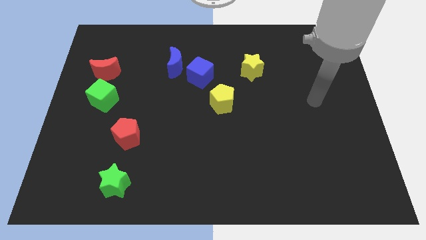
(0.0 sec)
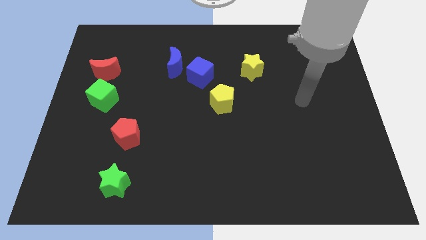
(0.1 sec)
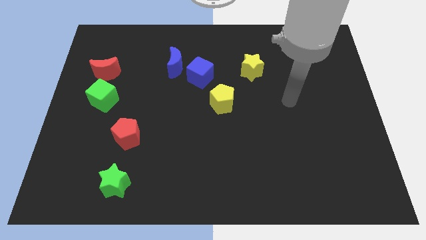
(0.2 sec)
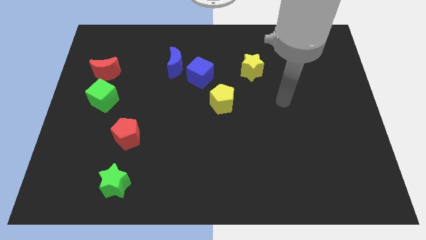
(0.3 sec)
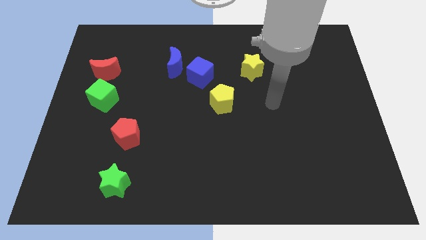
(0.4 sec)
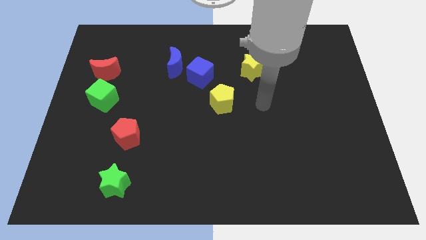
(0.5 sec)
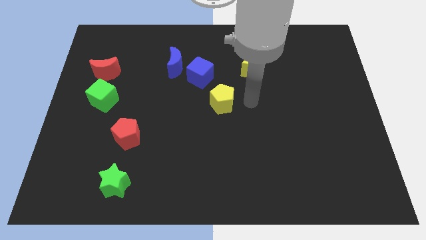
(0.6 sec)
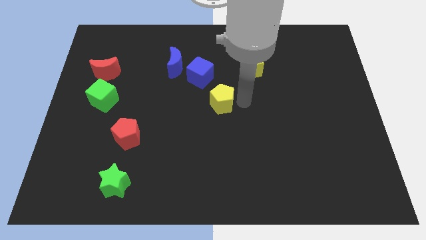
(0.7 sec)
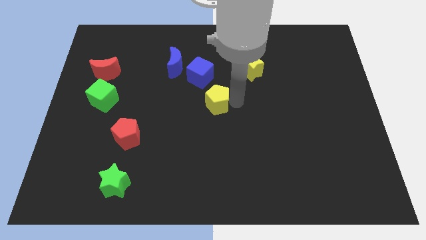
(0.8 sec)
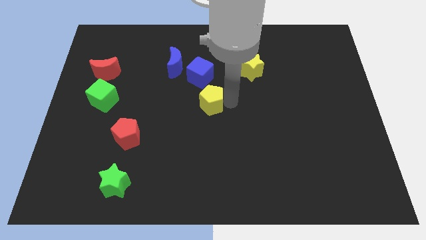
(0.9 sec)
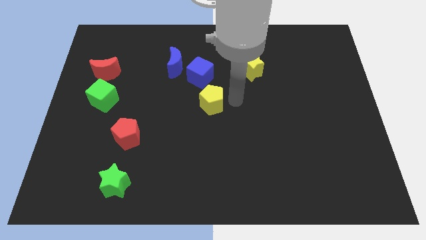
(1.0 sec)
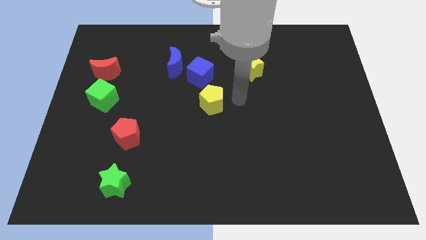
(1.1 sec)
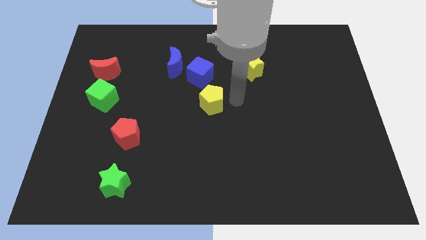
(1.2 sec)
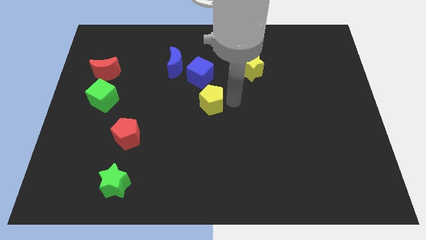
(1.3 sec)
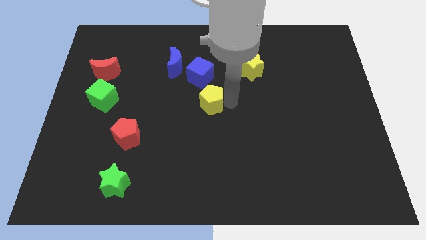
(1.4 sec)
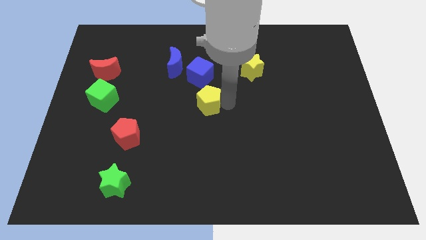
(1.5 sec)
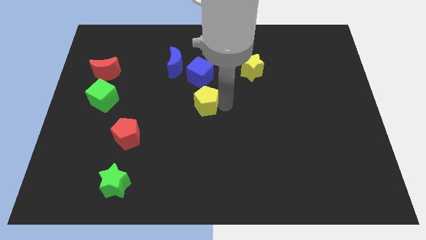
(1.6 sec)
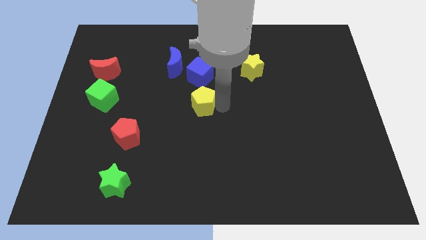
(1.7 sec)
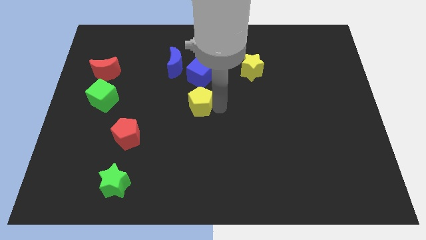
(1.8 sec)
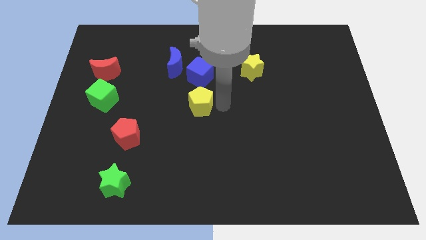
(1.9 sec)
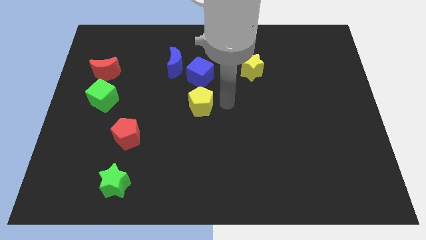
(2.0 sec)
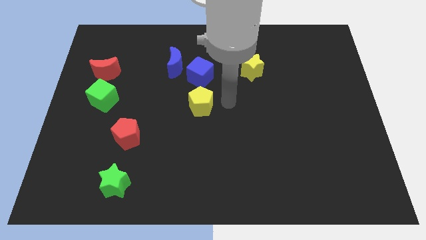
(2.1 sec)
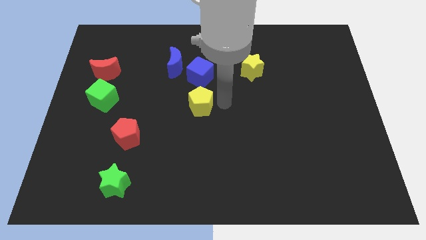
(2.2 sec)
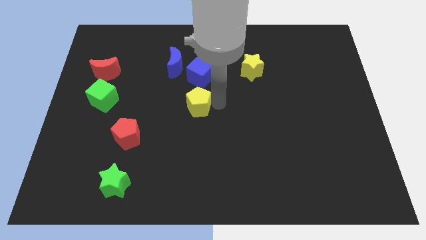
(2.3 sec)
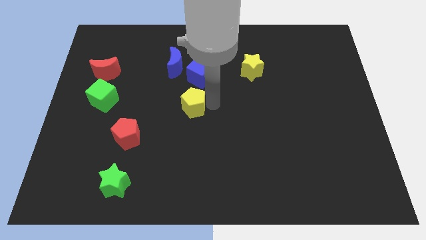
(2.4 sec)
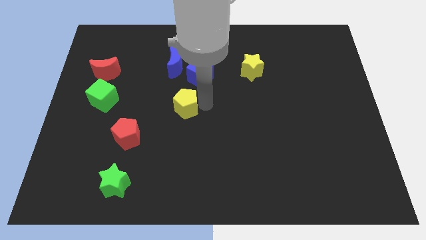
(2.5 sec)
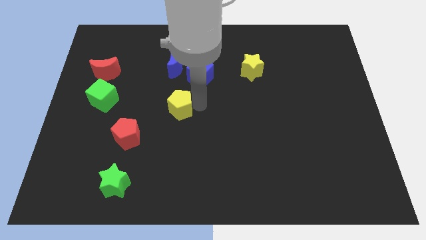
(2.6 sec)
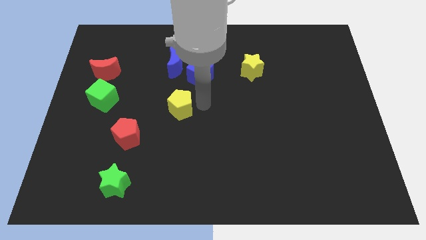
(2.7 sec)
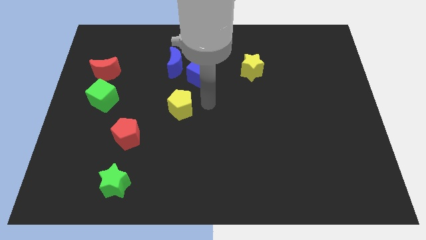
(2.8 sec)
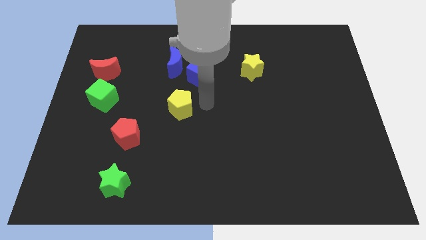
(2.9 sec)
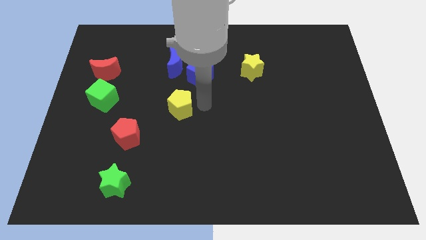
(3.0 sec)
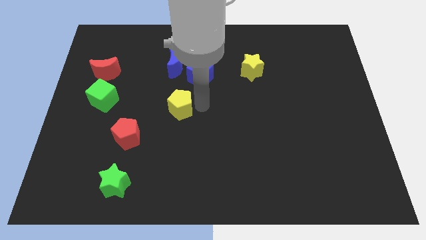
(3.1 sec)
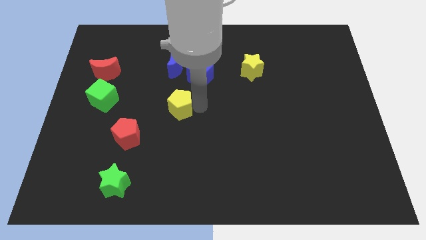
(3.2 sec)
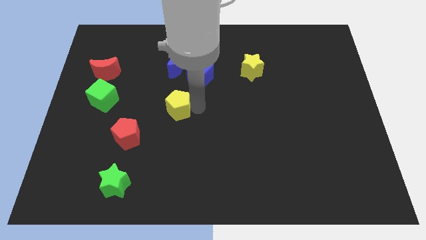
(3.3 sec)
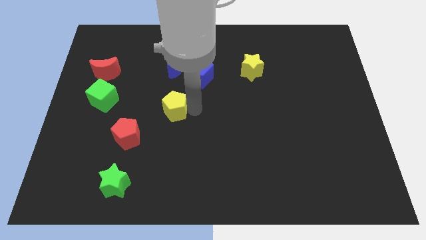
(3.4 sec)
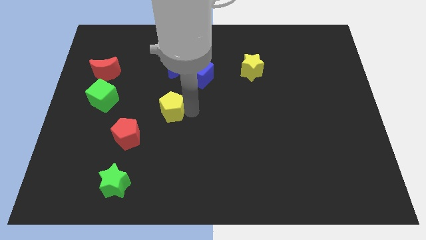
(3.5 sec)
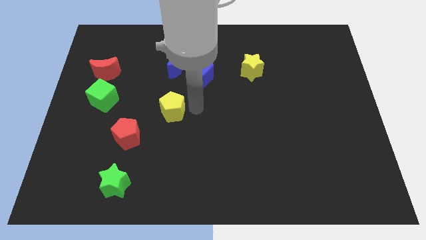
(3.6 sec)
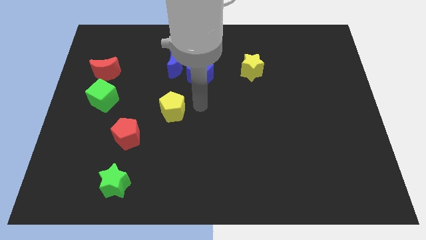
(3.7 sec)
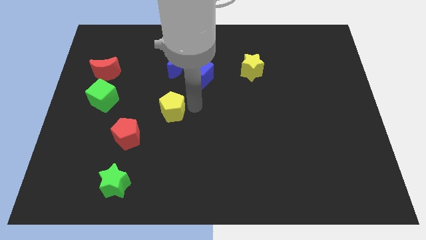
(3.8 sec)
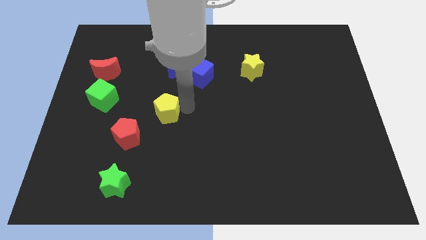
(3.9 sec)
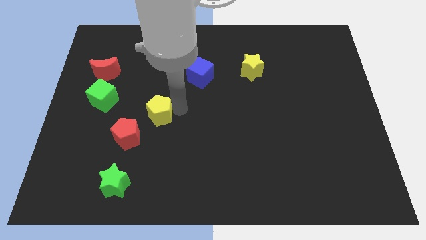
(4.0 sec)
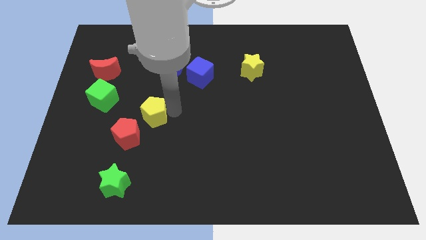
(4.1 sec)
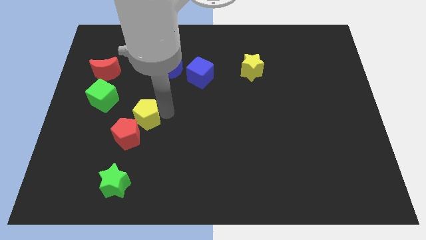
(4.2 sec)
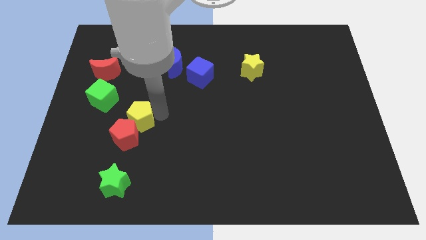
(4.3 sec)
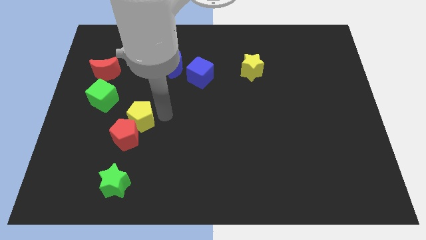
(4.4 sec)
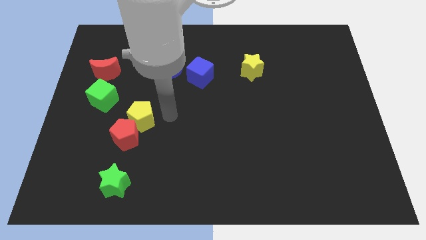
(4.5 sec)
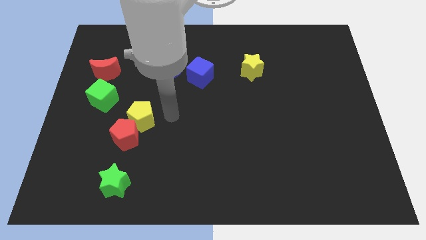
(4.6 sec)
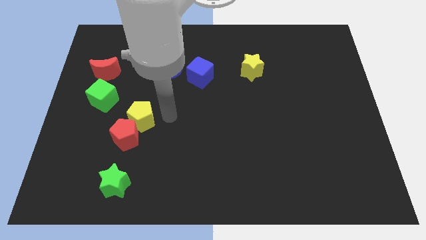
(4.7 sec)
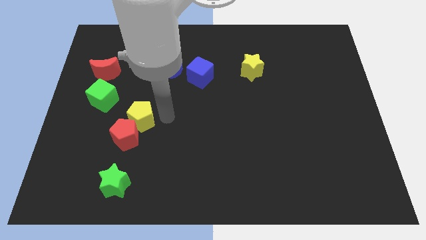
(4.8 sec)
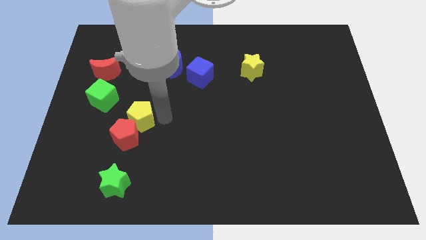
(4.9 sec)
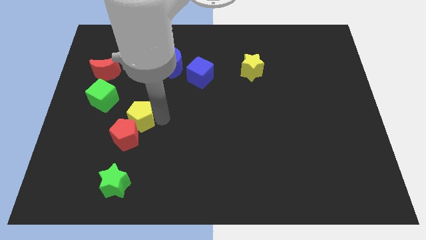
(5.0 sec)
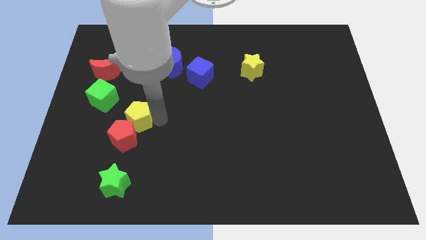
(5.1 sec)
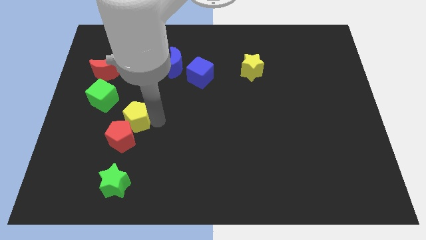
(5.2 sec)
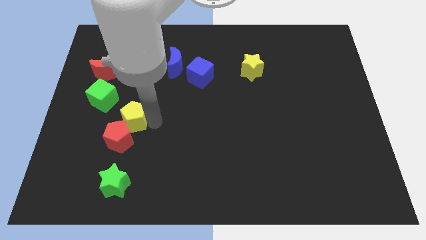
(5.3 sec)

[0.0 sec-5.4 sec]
slide the yellow pentagon above the green star

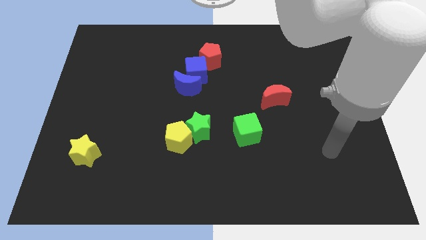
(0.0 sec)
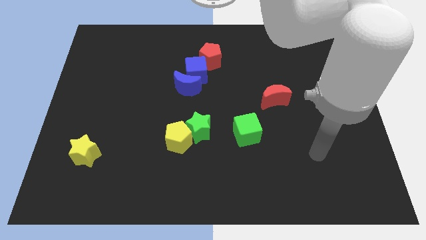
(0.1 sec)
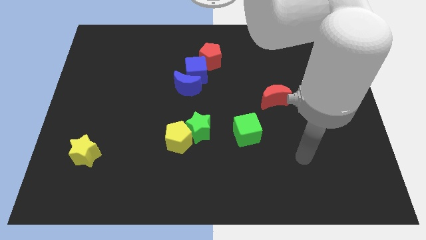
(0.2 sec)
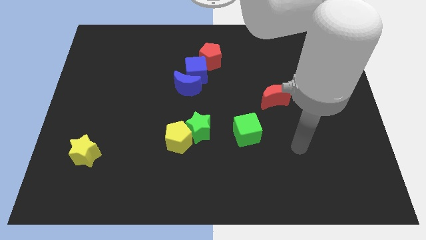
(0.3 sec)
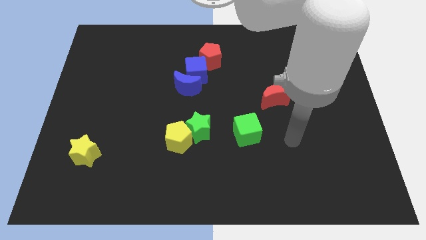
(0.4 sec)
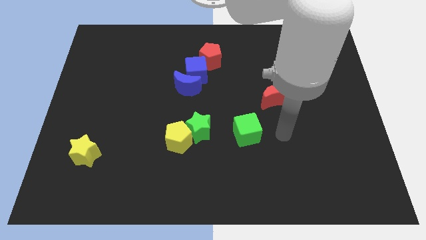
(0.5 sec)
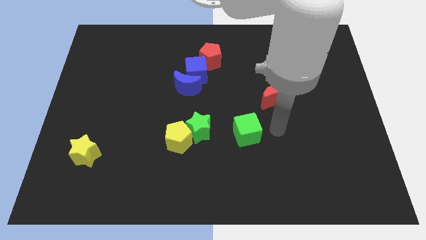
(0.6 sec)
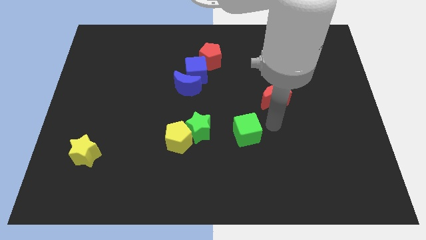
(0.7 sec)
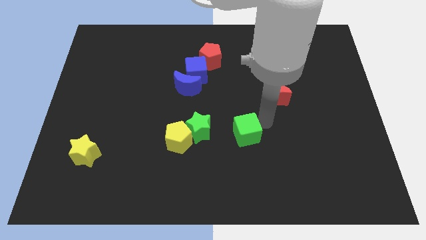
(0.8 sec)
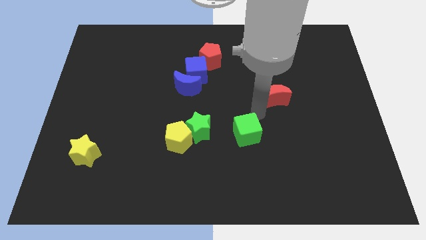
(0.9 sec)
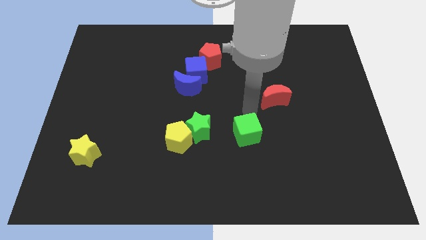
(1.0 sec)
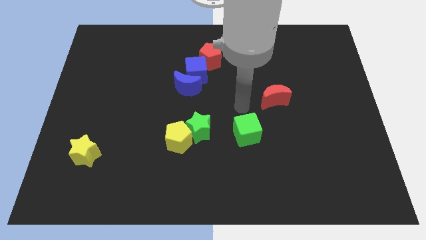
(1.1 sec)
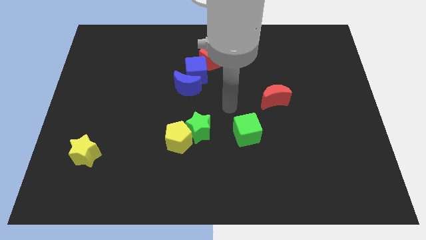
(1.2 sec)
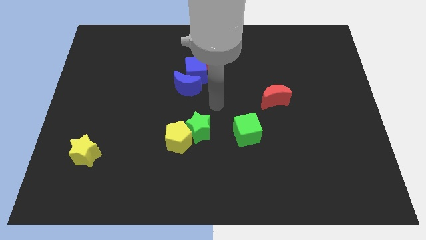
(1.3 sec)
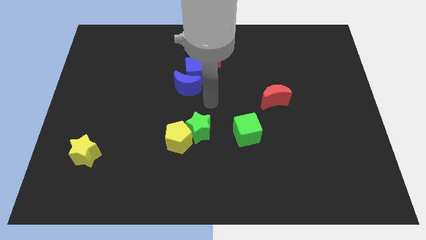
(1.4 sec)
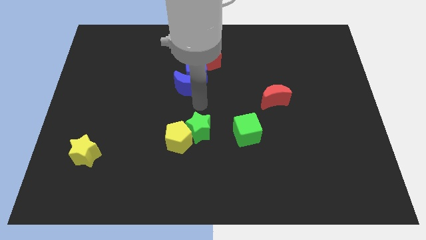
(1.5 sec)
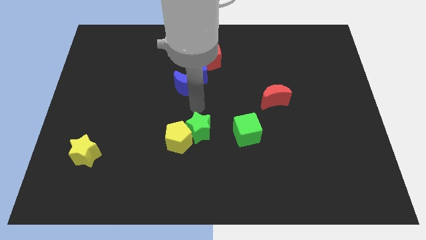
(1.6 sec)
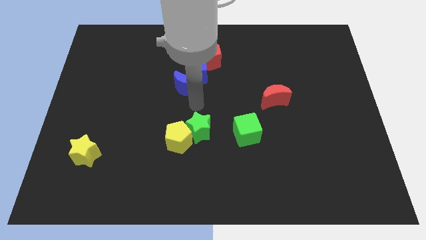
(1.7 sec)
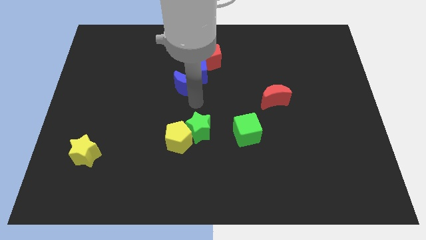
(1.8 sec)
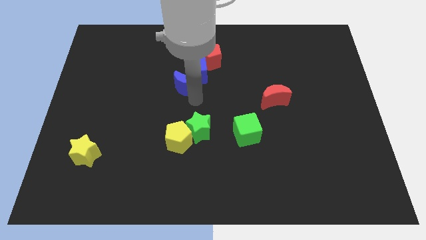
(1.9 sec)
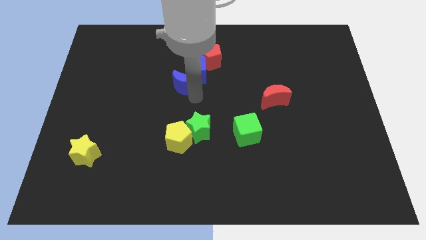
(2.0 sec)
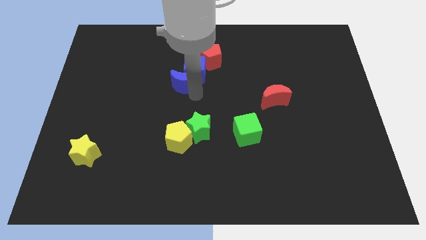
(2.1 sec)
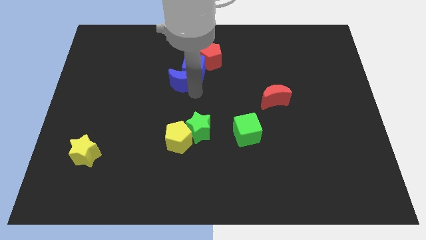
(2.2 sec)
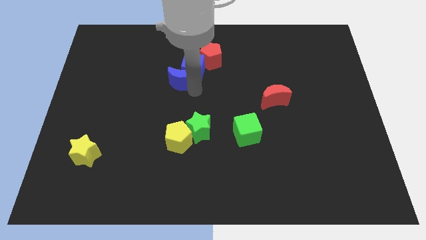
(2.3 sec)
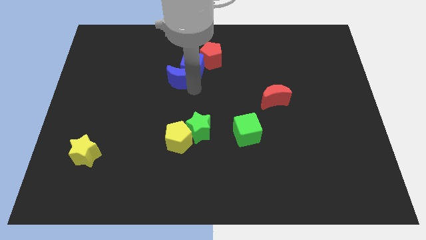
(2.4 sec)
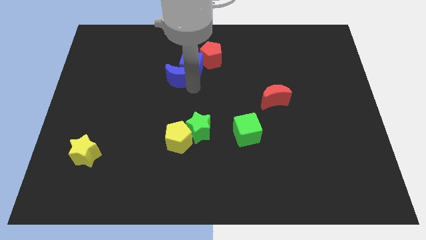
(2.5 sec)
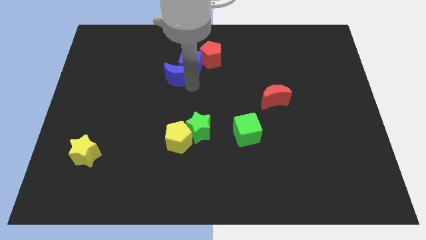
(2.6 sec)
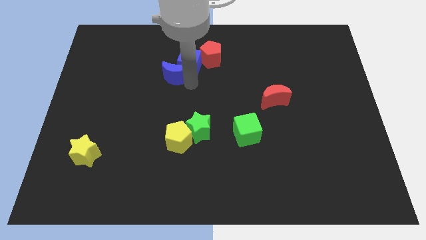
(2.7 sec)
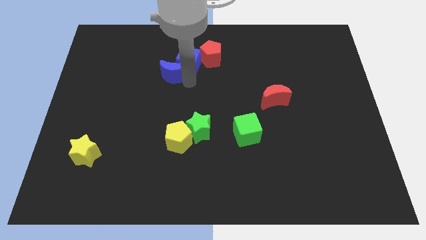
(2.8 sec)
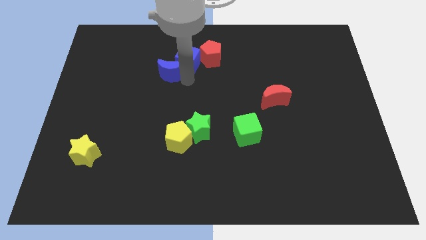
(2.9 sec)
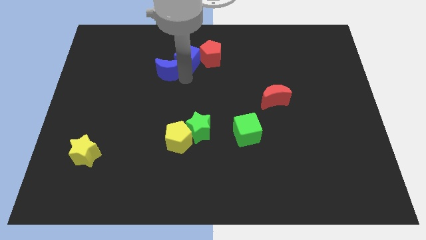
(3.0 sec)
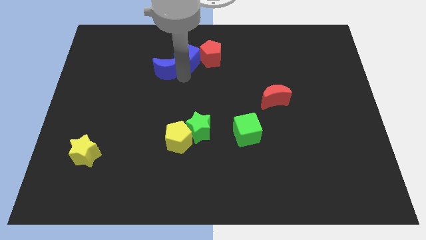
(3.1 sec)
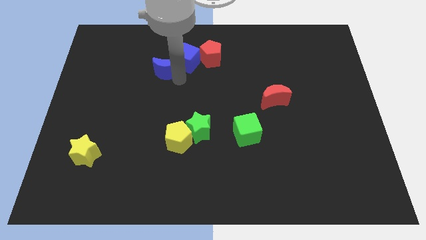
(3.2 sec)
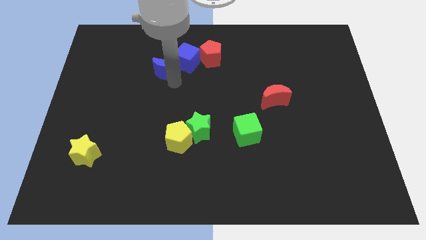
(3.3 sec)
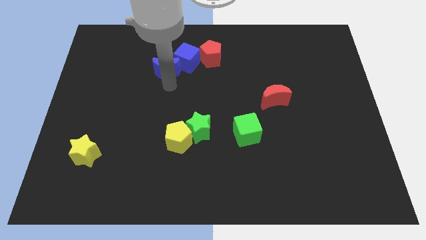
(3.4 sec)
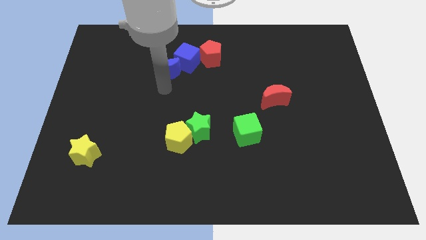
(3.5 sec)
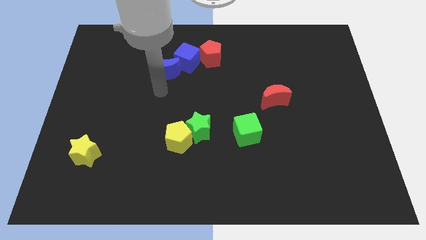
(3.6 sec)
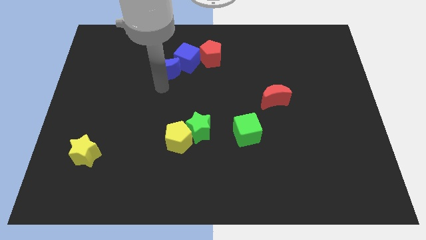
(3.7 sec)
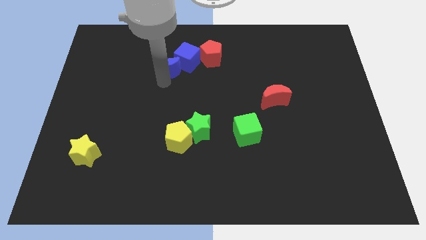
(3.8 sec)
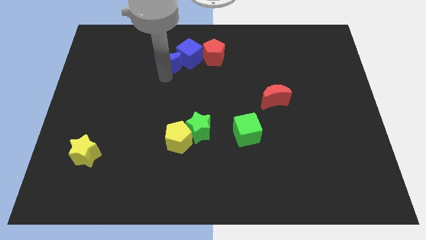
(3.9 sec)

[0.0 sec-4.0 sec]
move the blue moon to the left side of the red pentagon
